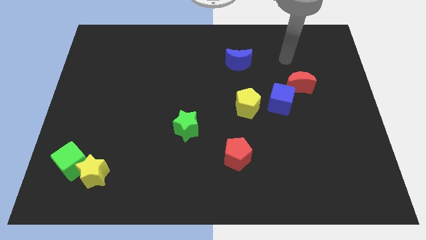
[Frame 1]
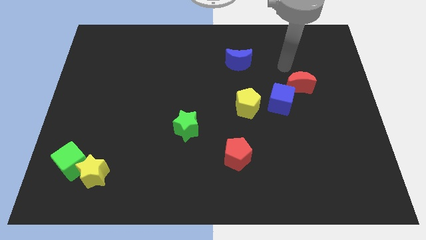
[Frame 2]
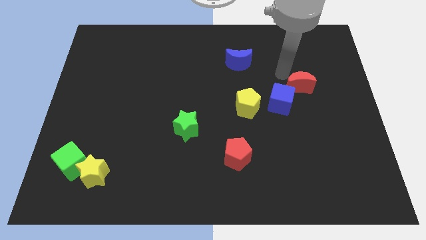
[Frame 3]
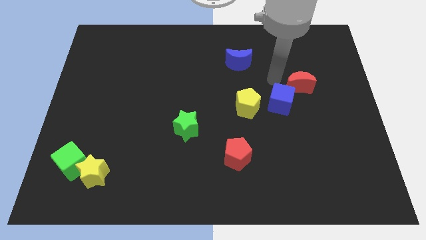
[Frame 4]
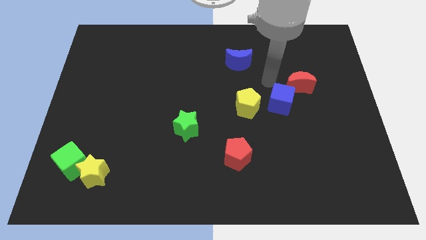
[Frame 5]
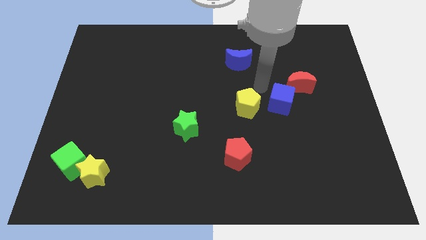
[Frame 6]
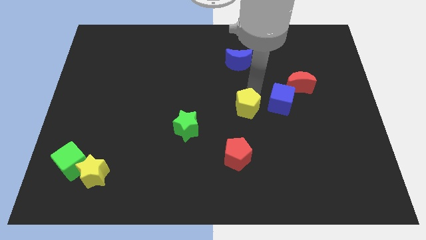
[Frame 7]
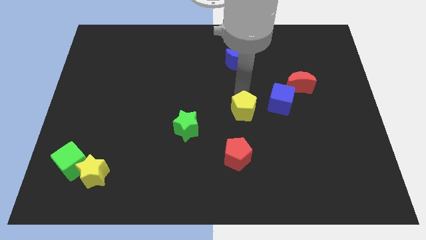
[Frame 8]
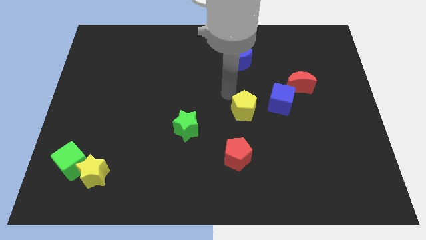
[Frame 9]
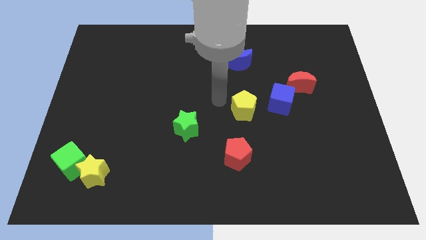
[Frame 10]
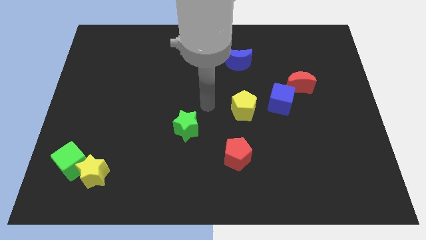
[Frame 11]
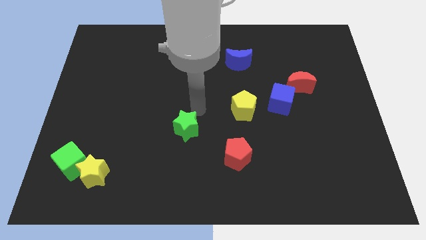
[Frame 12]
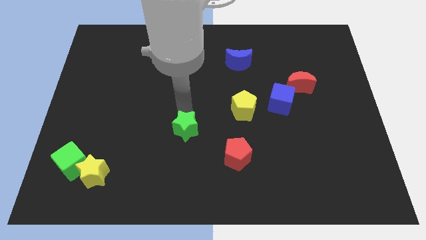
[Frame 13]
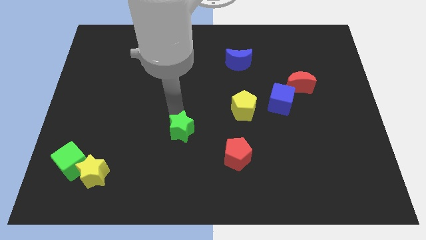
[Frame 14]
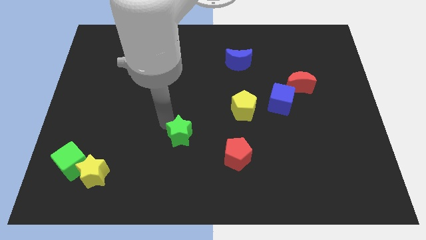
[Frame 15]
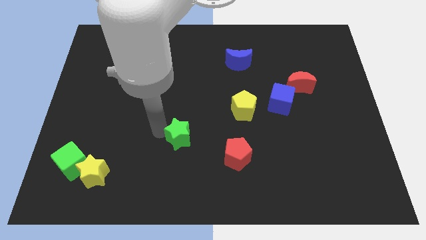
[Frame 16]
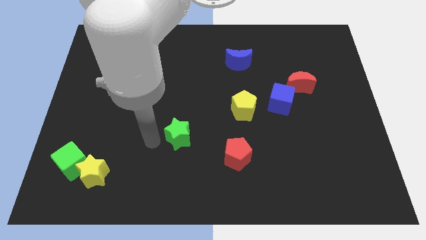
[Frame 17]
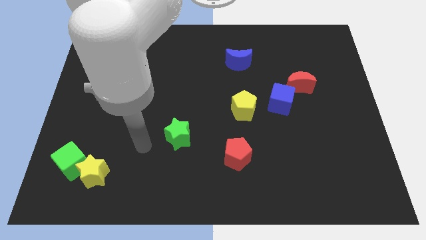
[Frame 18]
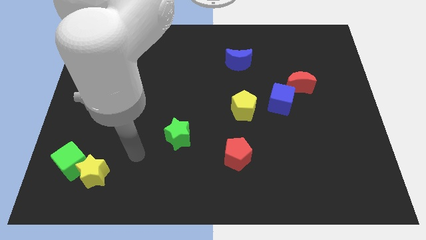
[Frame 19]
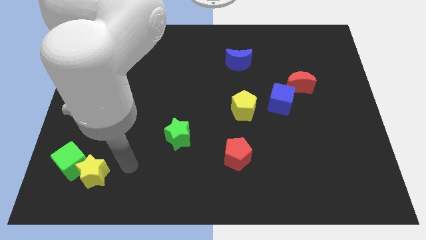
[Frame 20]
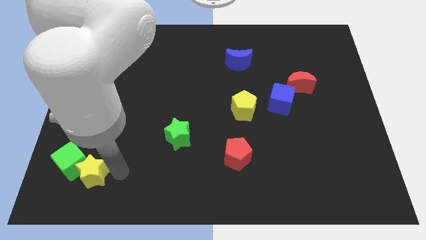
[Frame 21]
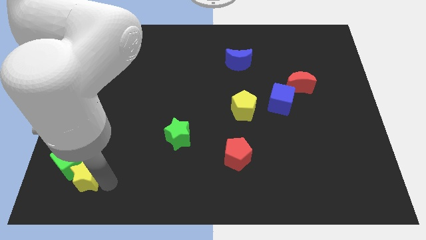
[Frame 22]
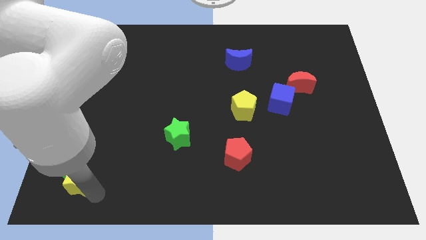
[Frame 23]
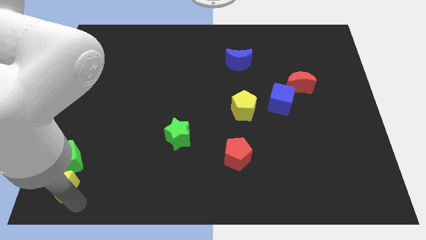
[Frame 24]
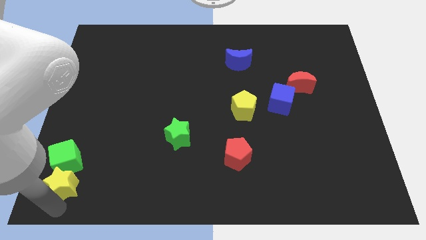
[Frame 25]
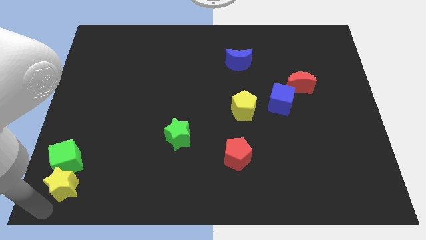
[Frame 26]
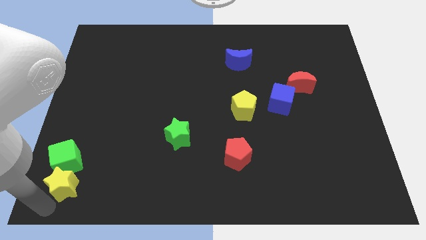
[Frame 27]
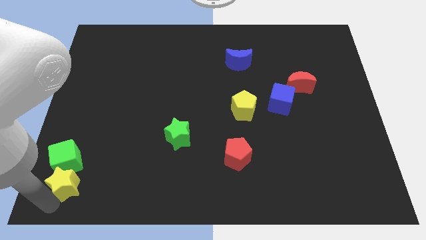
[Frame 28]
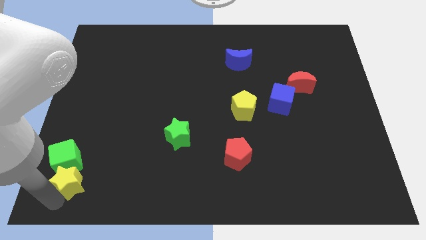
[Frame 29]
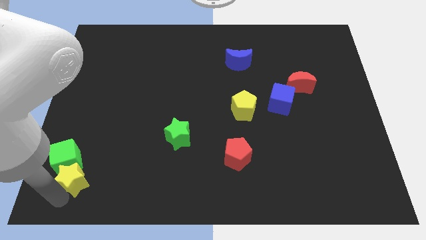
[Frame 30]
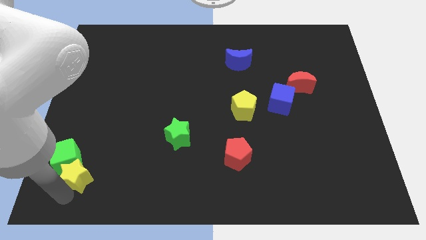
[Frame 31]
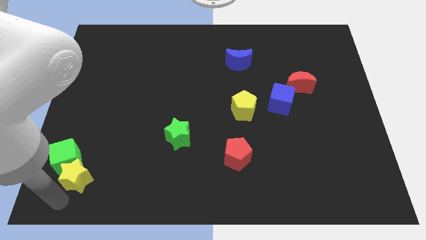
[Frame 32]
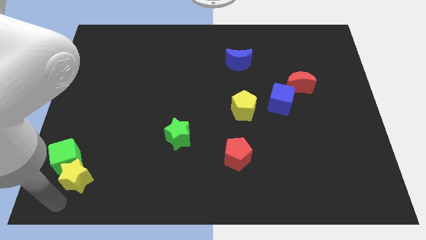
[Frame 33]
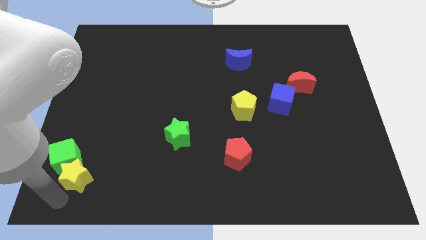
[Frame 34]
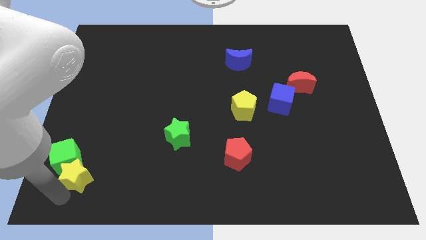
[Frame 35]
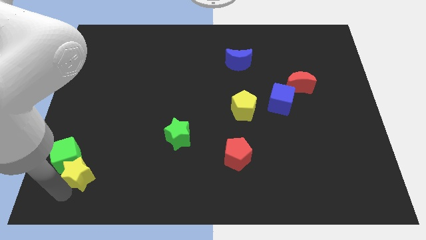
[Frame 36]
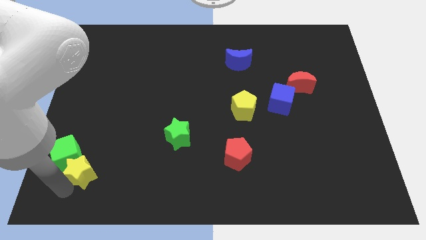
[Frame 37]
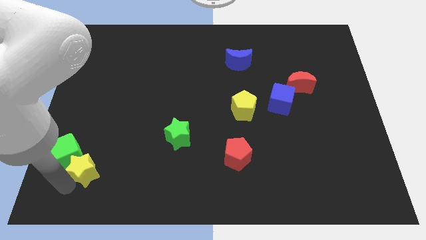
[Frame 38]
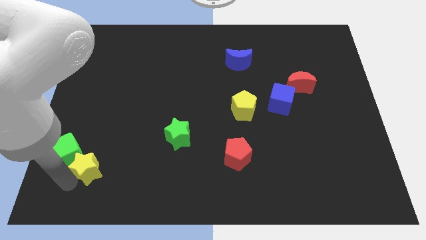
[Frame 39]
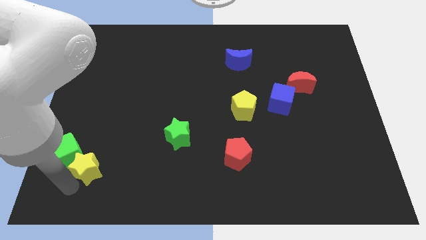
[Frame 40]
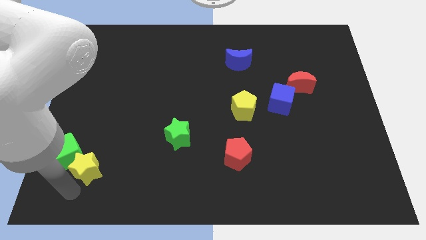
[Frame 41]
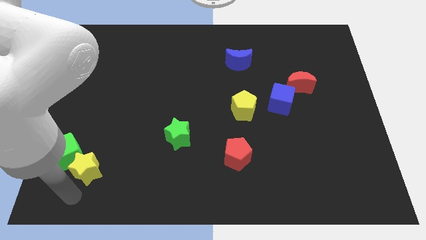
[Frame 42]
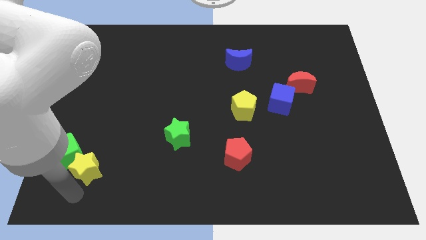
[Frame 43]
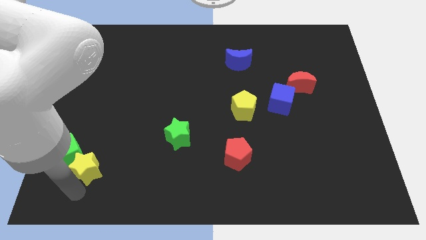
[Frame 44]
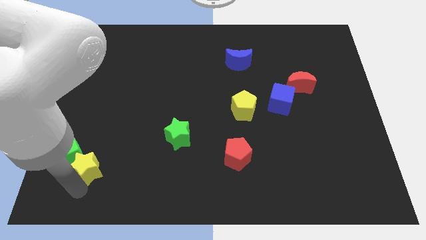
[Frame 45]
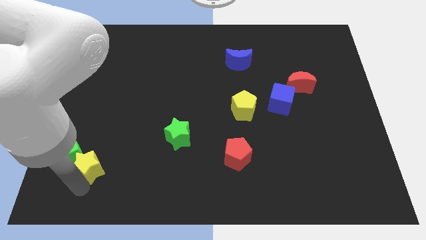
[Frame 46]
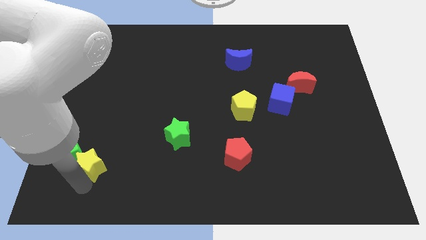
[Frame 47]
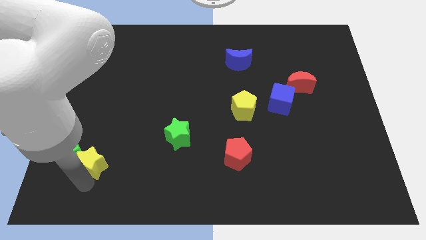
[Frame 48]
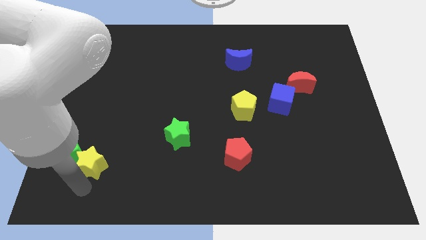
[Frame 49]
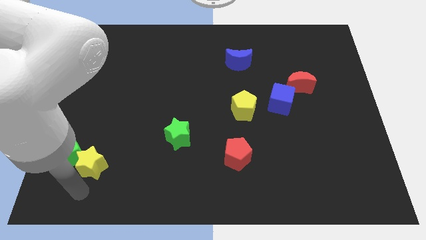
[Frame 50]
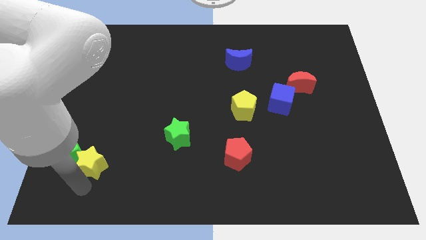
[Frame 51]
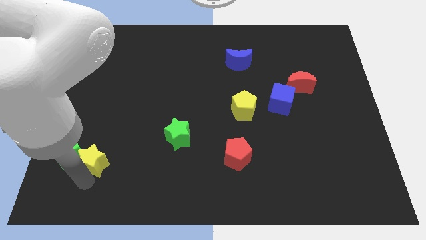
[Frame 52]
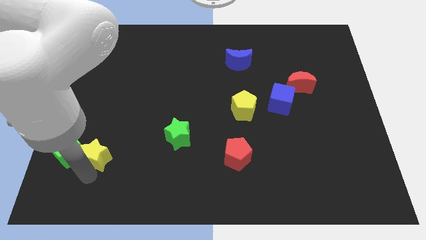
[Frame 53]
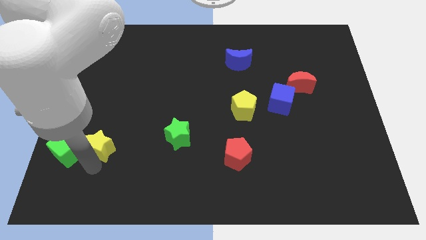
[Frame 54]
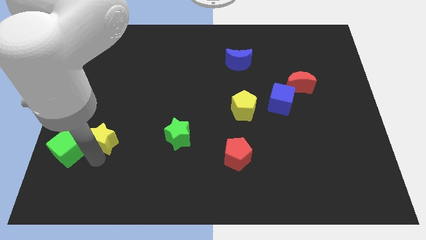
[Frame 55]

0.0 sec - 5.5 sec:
push the yellow star upwards somewhat

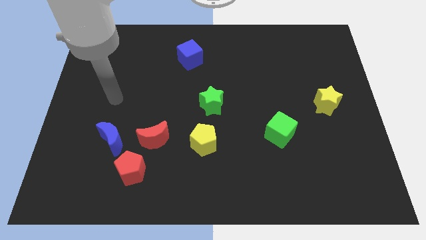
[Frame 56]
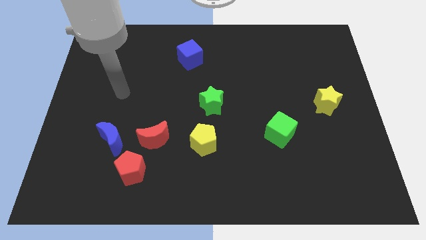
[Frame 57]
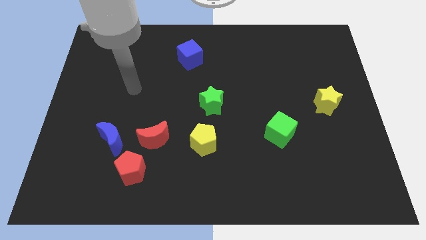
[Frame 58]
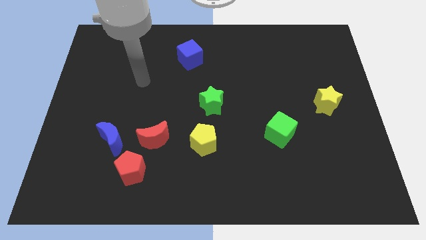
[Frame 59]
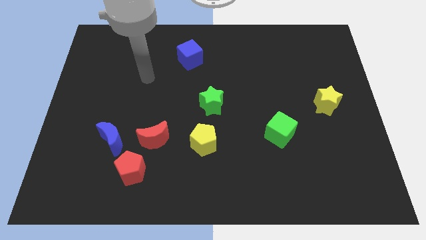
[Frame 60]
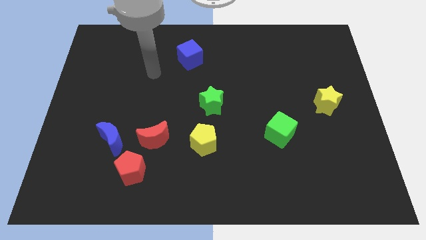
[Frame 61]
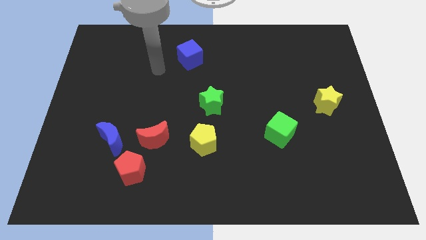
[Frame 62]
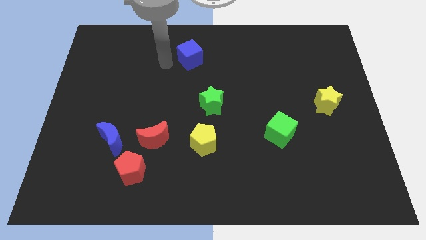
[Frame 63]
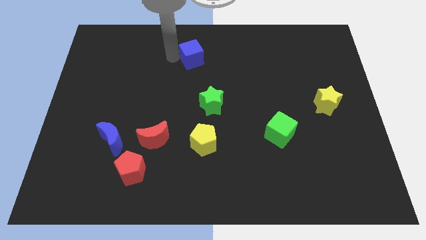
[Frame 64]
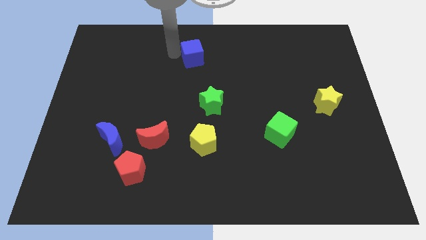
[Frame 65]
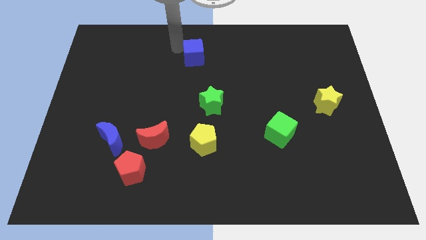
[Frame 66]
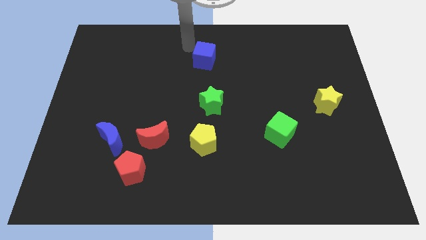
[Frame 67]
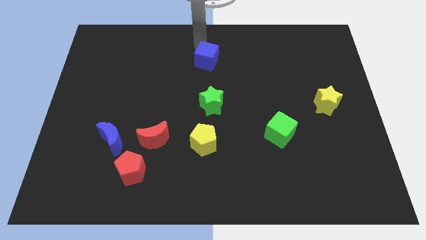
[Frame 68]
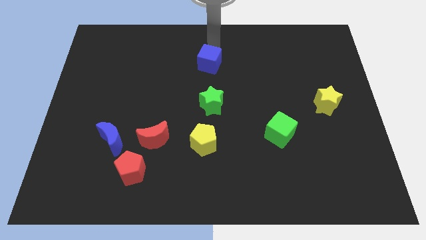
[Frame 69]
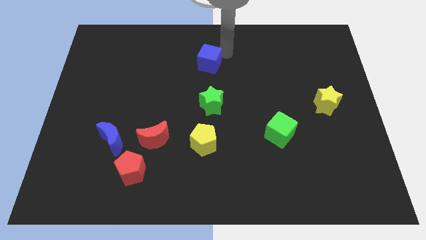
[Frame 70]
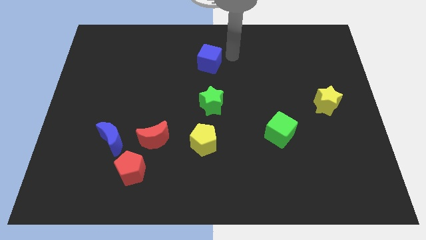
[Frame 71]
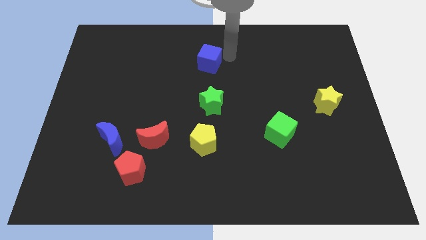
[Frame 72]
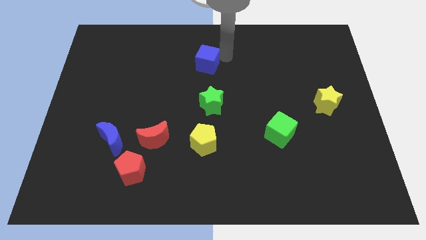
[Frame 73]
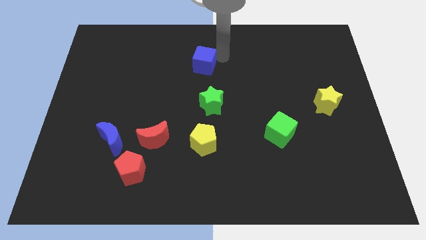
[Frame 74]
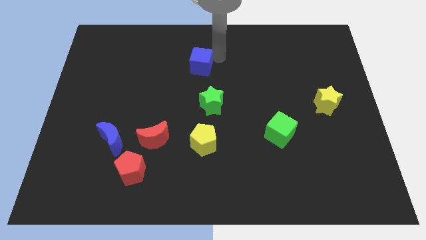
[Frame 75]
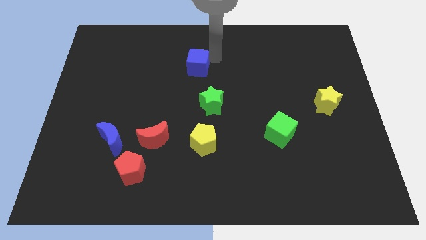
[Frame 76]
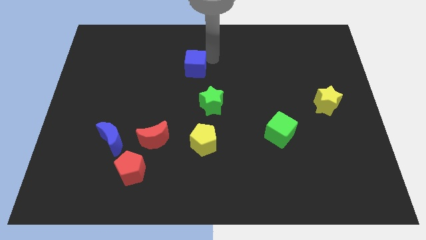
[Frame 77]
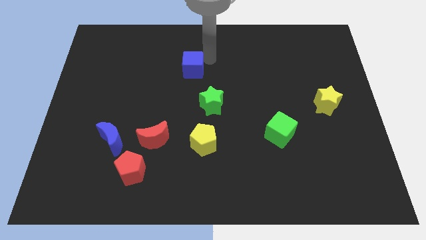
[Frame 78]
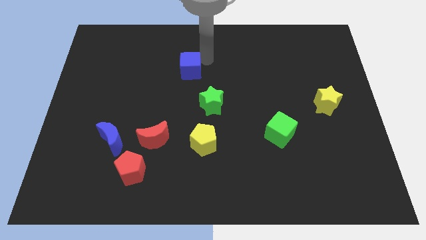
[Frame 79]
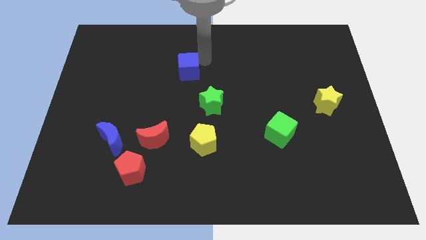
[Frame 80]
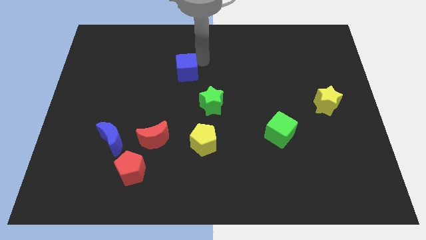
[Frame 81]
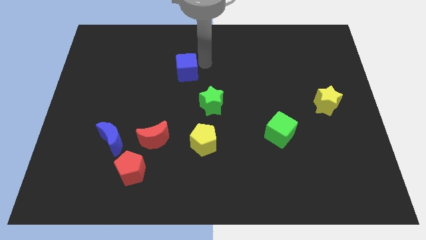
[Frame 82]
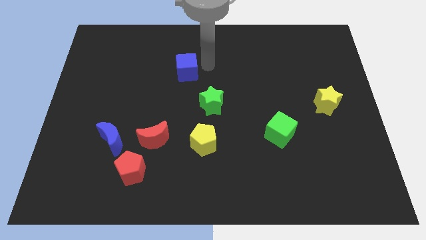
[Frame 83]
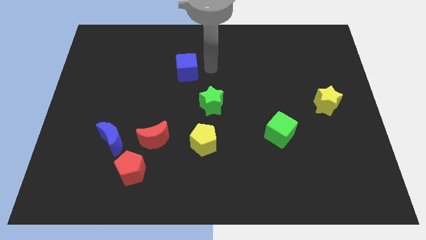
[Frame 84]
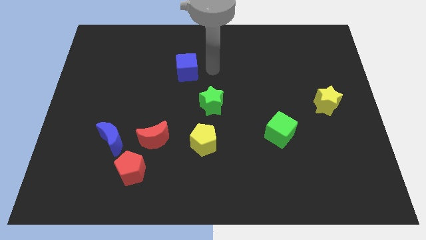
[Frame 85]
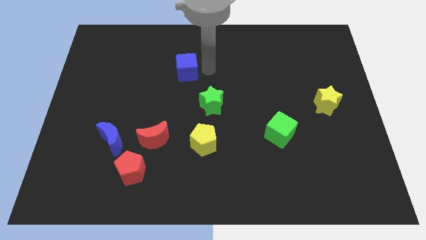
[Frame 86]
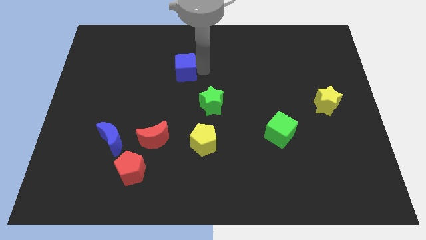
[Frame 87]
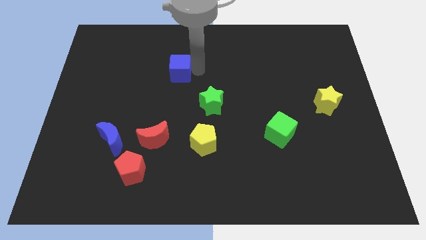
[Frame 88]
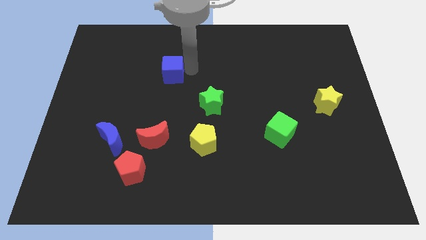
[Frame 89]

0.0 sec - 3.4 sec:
push the blue cube a bit downwards and to the left
